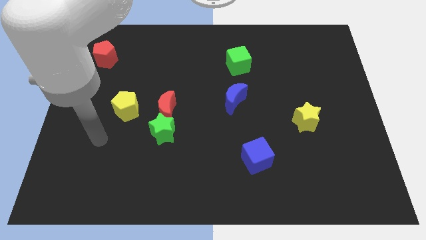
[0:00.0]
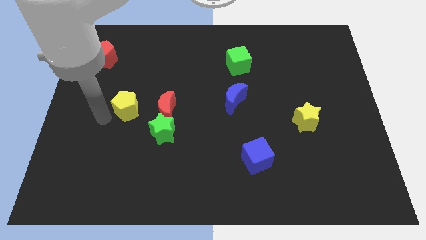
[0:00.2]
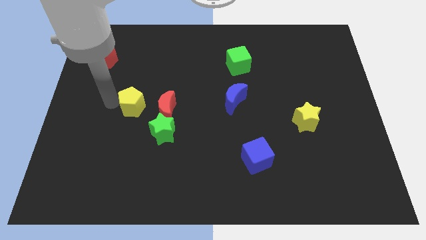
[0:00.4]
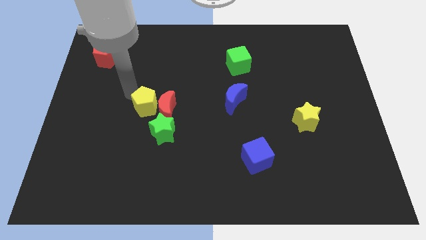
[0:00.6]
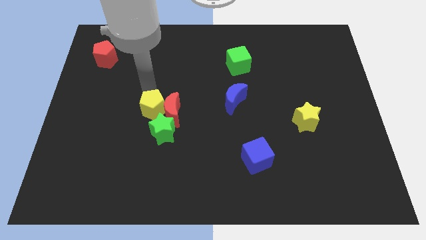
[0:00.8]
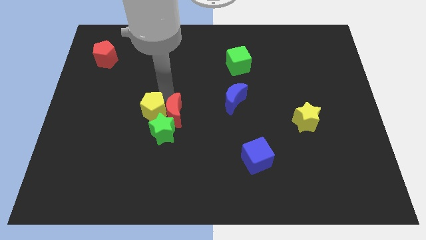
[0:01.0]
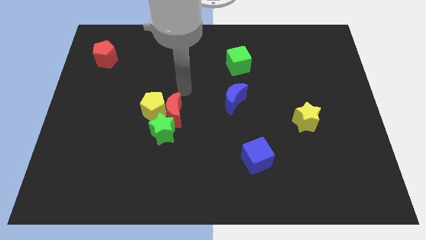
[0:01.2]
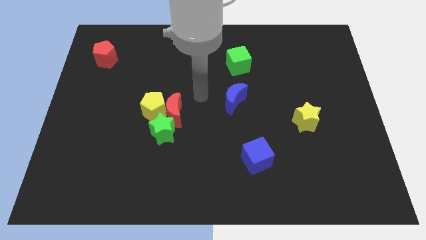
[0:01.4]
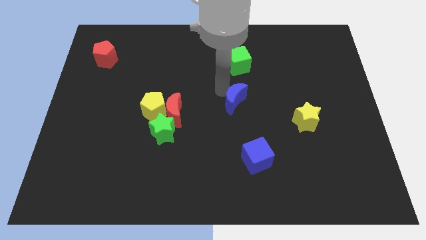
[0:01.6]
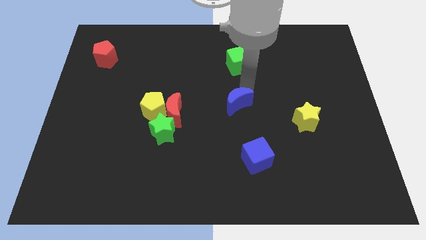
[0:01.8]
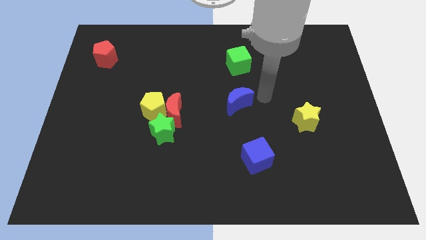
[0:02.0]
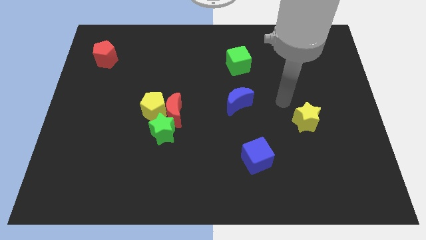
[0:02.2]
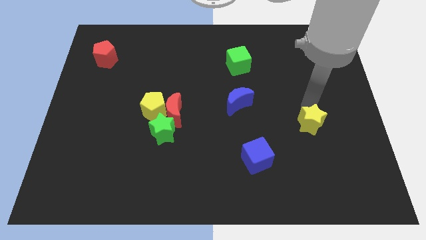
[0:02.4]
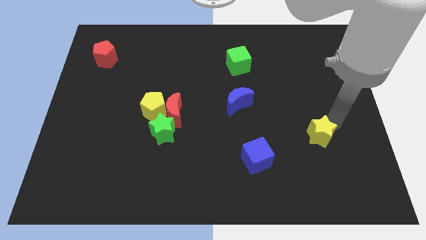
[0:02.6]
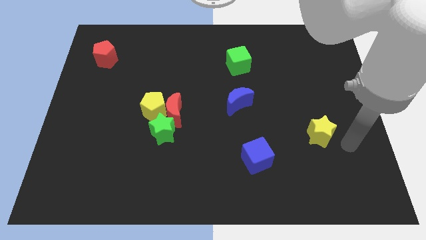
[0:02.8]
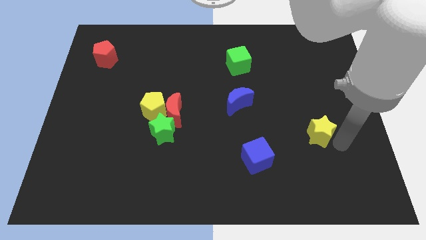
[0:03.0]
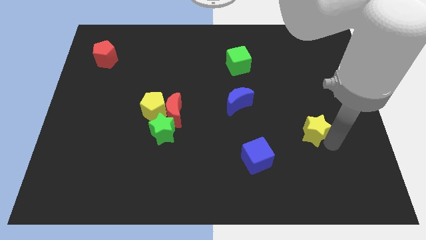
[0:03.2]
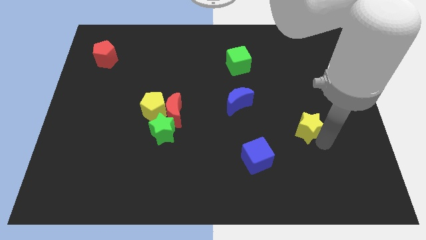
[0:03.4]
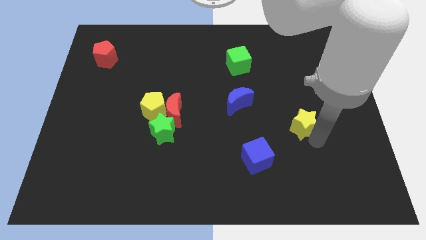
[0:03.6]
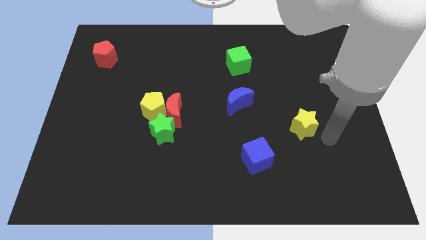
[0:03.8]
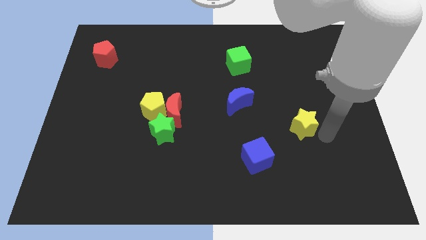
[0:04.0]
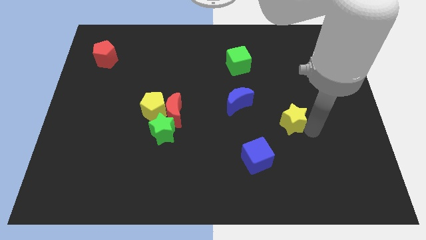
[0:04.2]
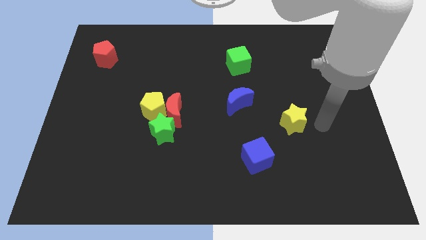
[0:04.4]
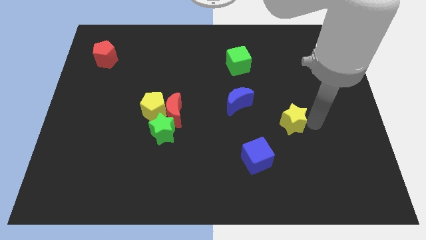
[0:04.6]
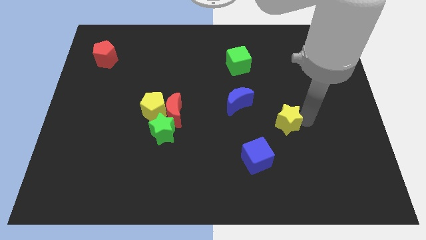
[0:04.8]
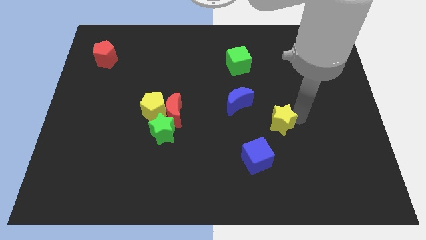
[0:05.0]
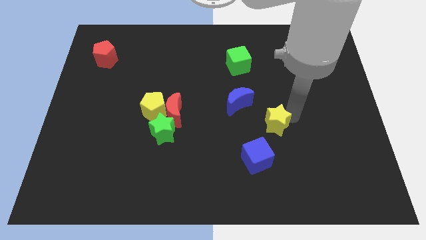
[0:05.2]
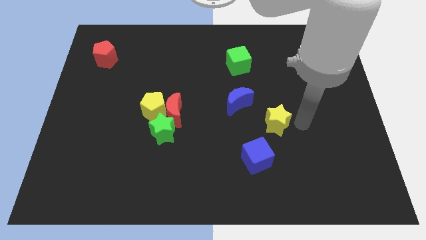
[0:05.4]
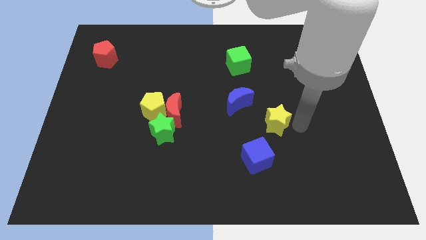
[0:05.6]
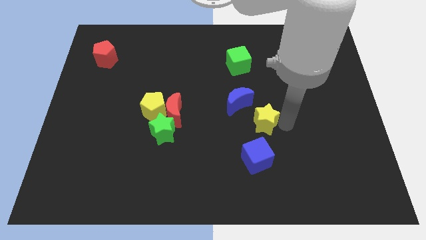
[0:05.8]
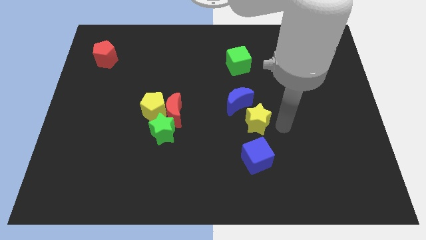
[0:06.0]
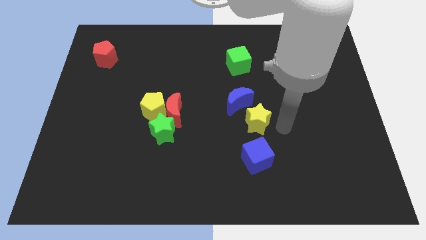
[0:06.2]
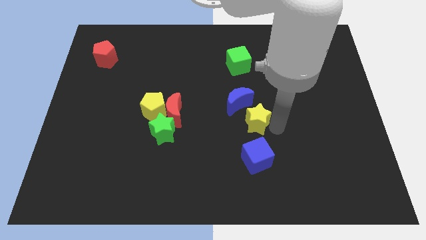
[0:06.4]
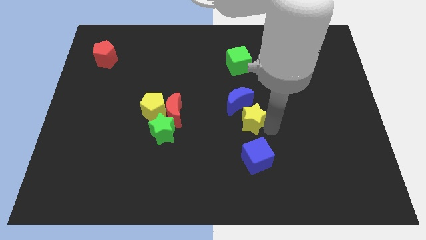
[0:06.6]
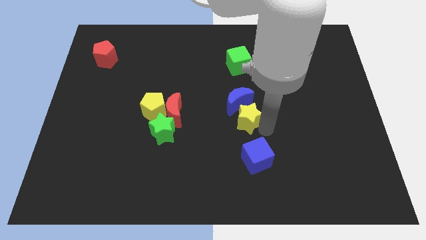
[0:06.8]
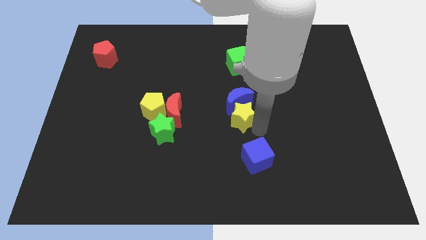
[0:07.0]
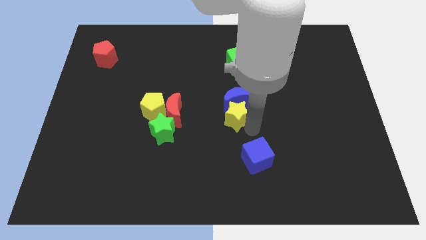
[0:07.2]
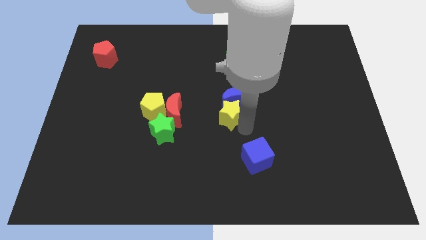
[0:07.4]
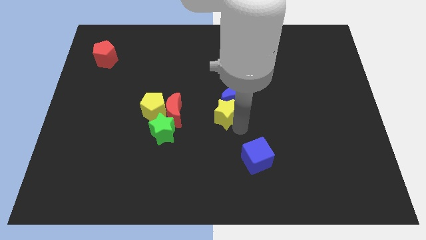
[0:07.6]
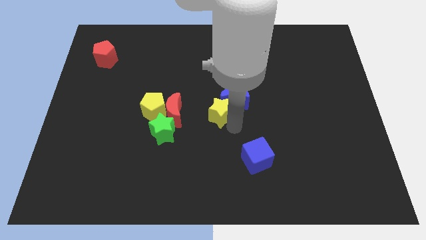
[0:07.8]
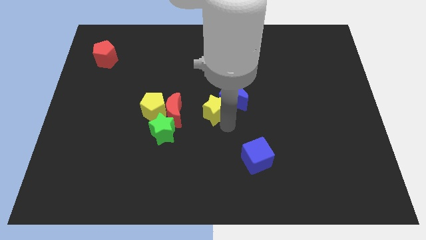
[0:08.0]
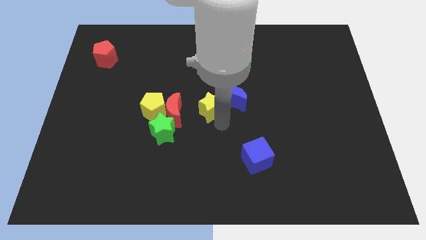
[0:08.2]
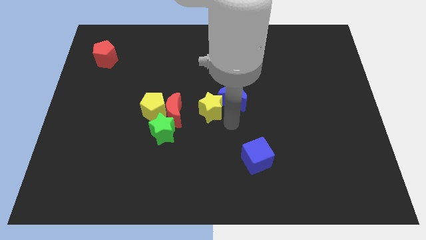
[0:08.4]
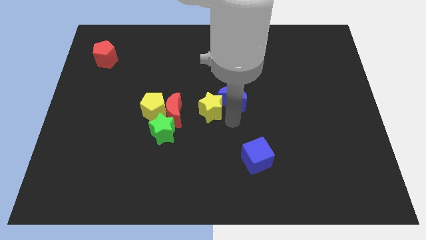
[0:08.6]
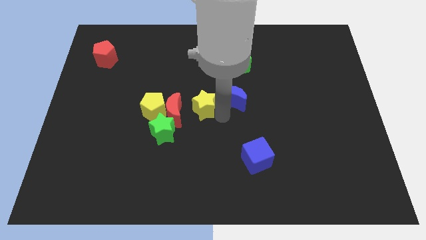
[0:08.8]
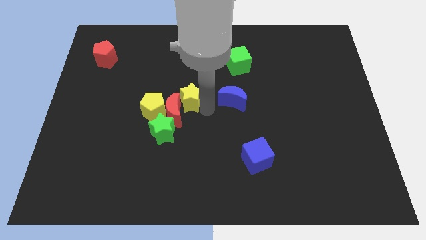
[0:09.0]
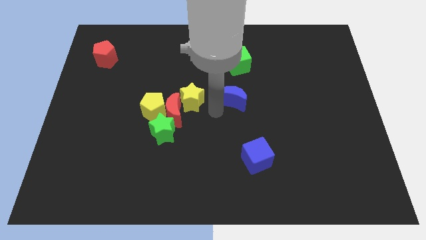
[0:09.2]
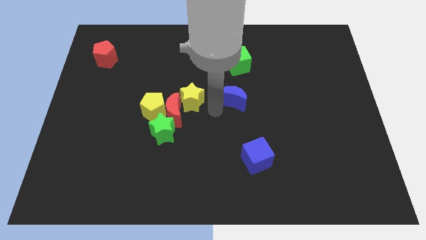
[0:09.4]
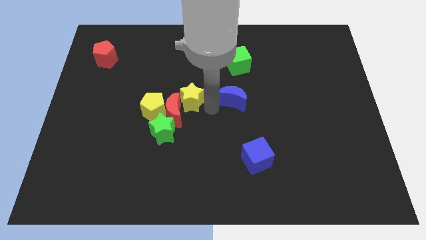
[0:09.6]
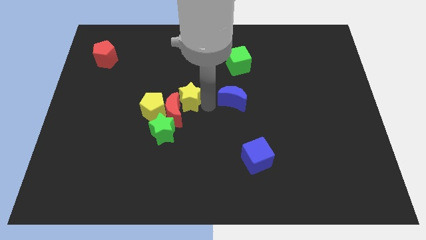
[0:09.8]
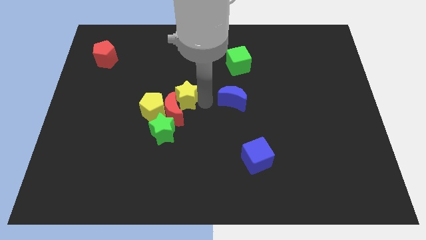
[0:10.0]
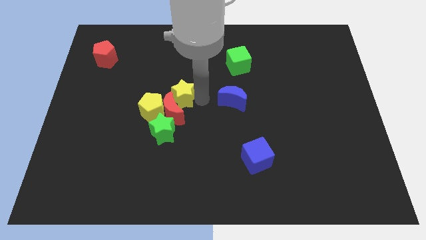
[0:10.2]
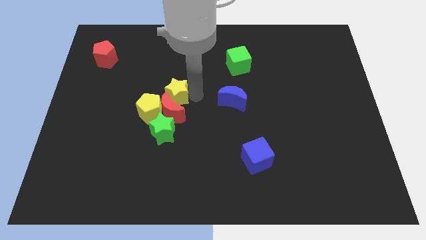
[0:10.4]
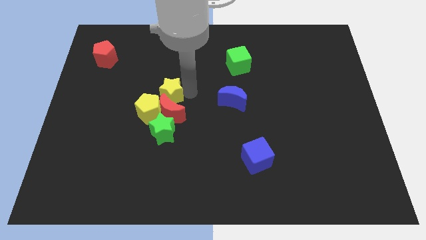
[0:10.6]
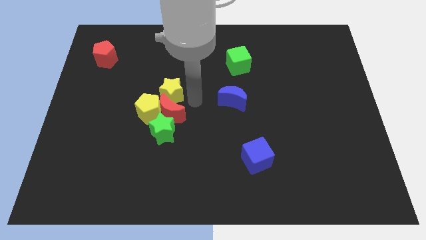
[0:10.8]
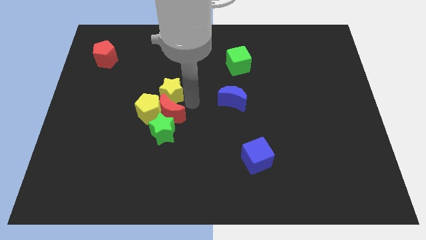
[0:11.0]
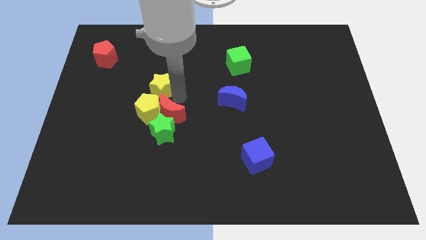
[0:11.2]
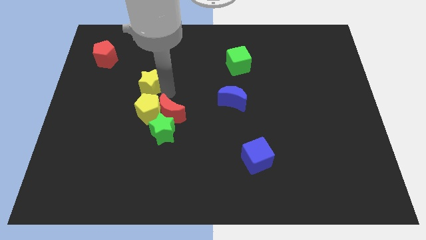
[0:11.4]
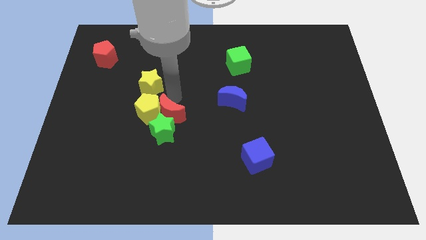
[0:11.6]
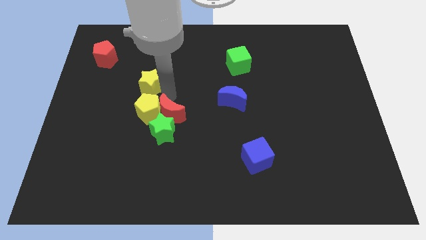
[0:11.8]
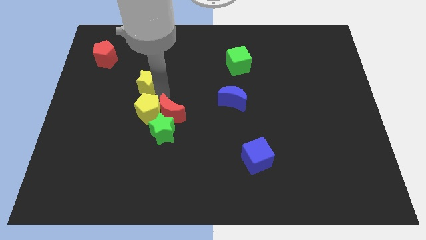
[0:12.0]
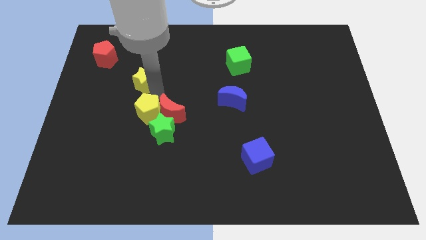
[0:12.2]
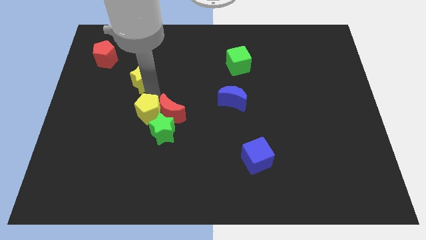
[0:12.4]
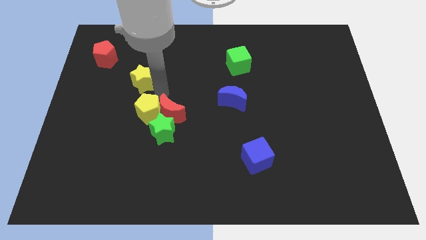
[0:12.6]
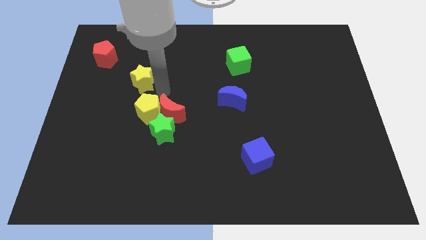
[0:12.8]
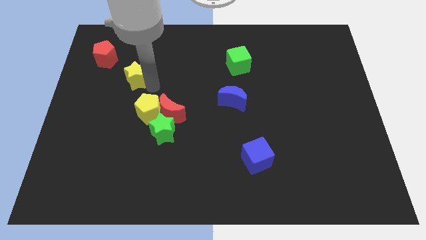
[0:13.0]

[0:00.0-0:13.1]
put the yellow star to the bottom right side of the red pentagon
